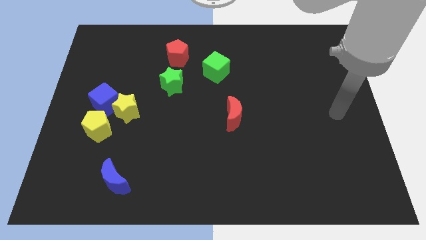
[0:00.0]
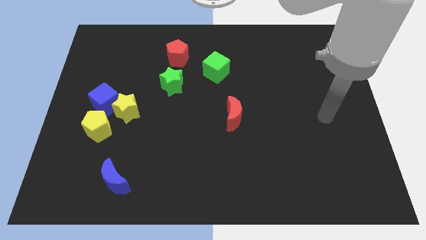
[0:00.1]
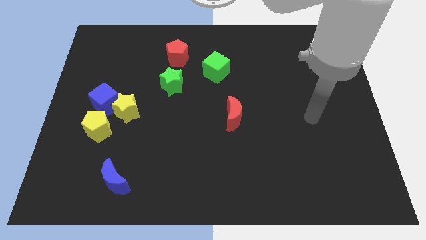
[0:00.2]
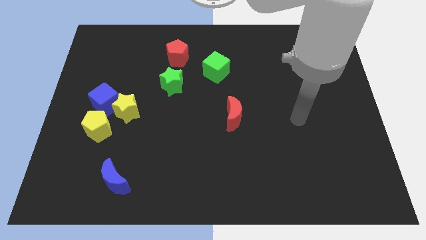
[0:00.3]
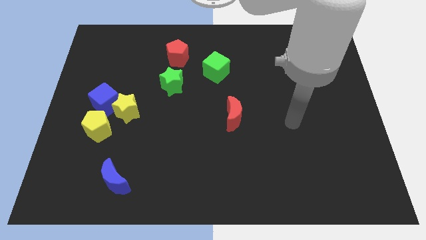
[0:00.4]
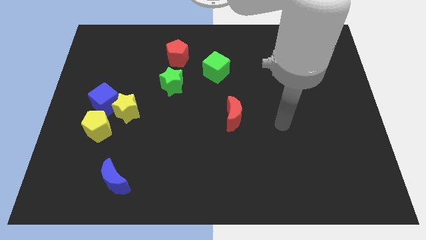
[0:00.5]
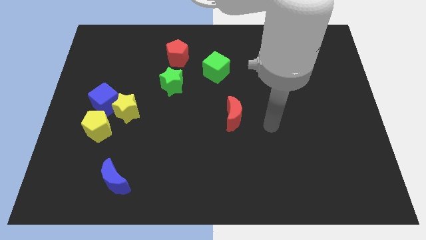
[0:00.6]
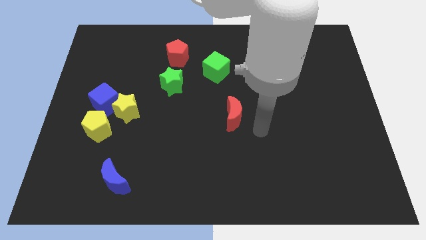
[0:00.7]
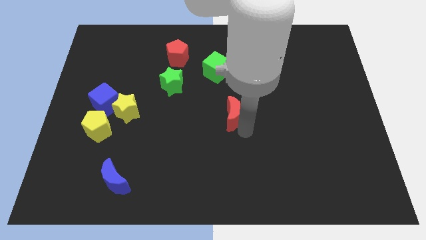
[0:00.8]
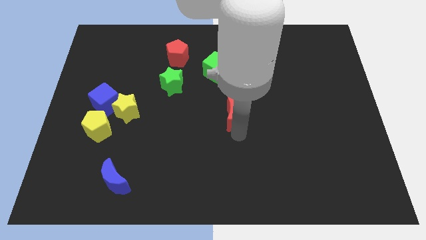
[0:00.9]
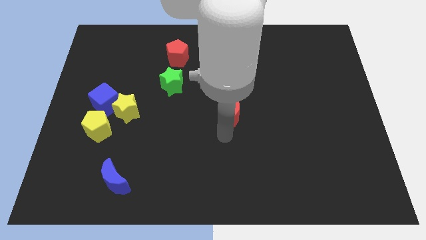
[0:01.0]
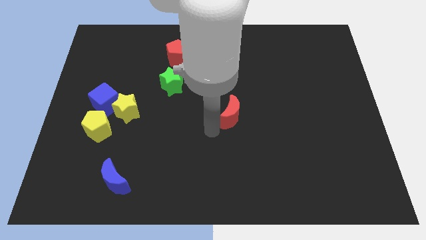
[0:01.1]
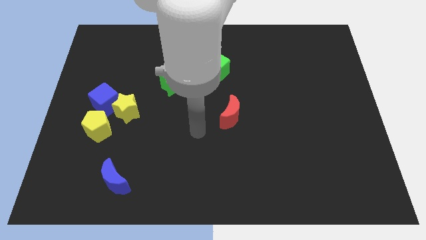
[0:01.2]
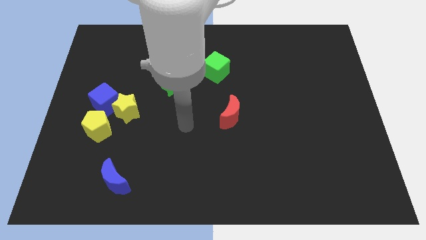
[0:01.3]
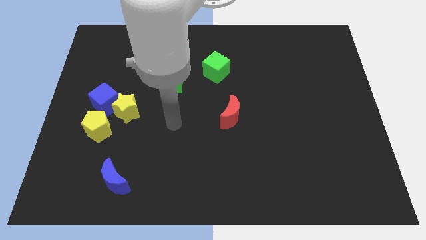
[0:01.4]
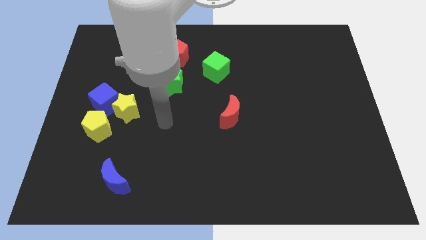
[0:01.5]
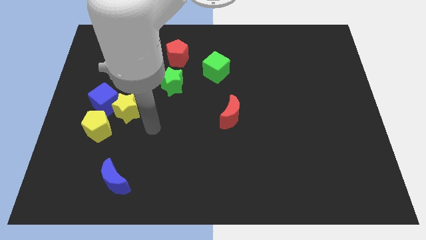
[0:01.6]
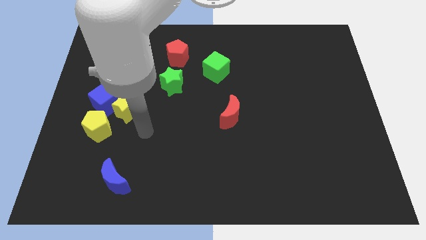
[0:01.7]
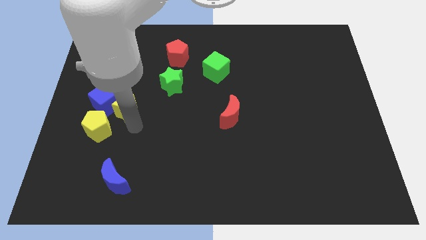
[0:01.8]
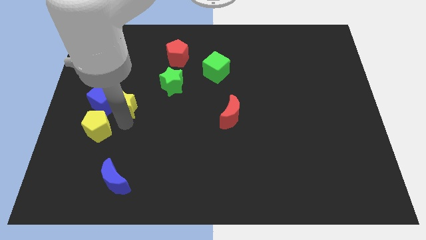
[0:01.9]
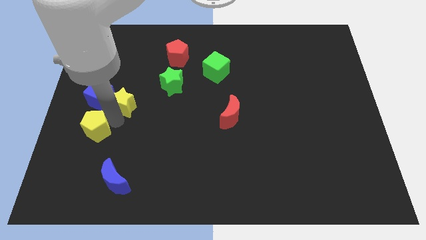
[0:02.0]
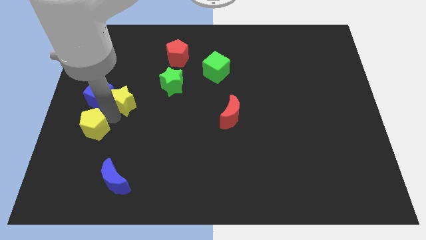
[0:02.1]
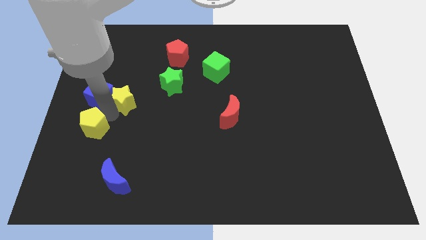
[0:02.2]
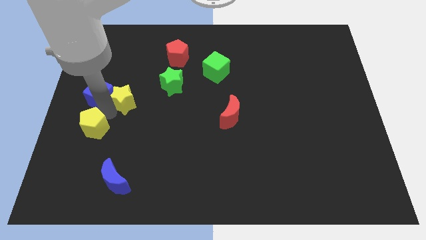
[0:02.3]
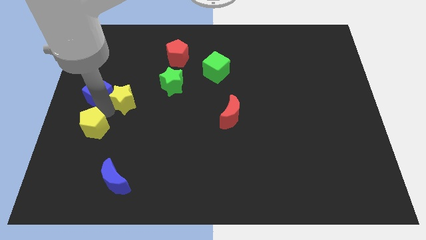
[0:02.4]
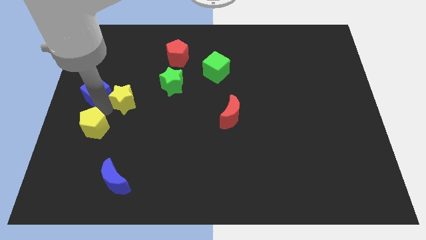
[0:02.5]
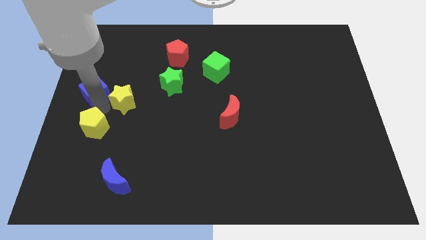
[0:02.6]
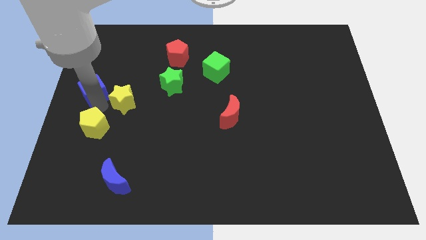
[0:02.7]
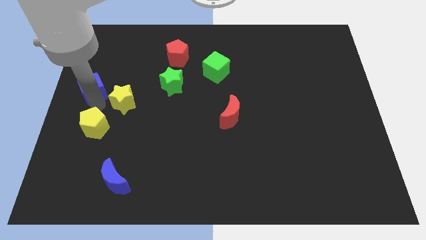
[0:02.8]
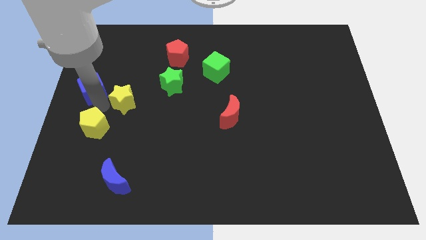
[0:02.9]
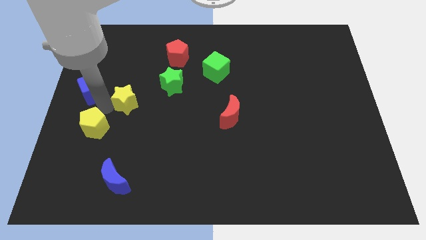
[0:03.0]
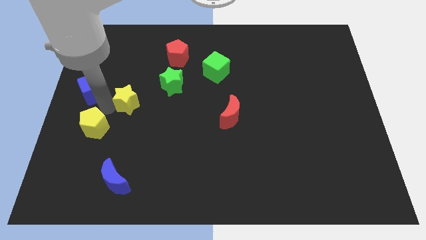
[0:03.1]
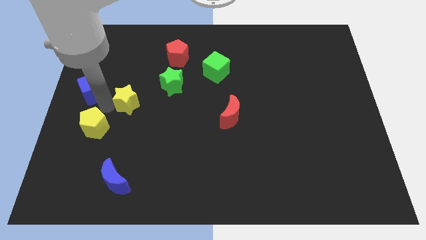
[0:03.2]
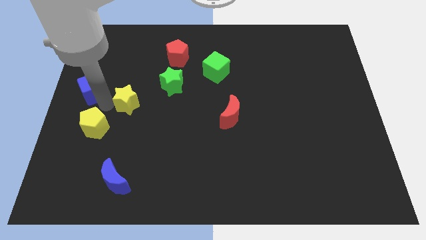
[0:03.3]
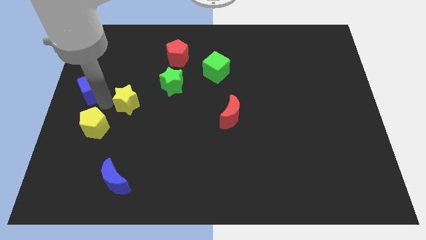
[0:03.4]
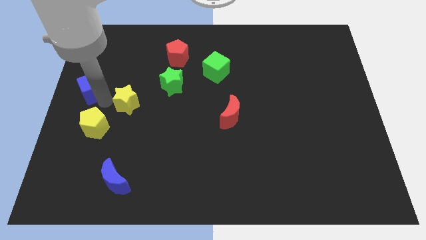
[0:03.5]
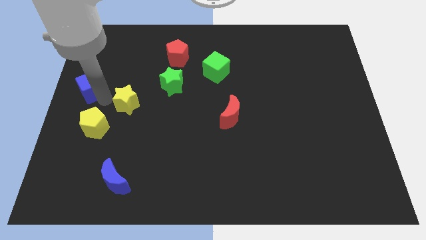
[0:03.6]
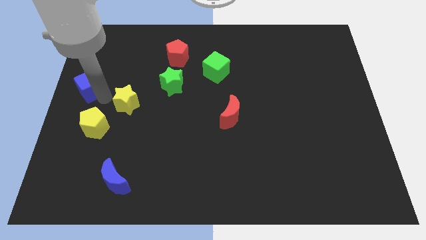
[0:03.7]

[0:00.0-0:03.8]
pull the blue cube apart from the yellow star and yellow pentagon

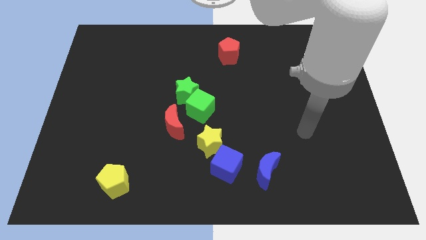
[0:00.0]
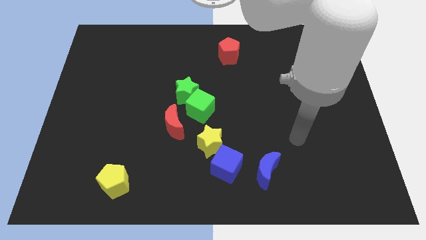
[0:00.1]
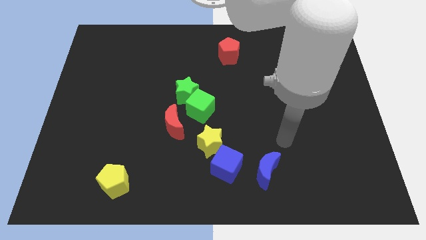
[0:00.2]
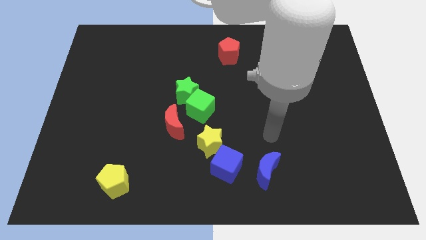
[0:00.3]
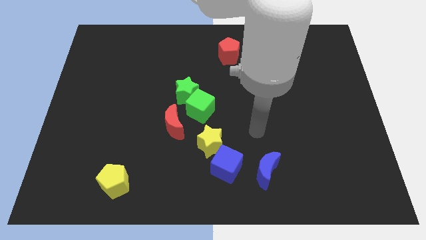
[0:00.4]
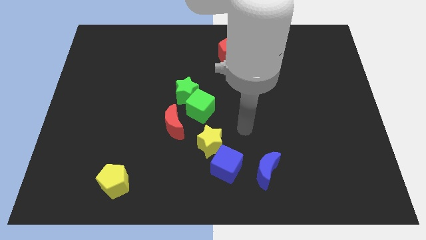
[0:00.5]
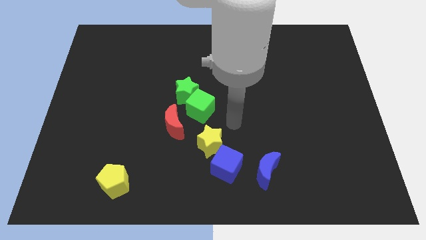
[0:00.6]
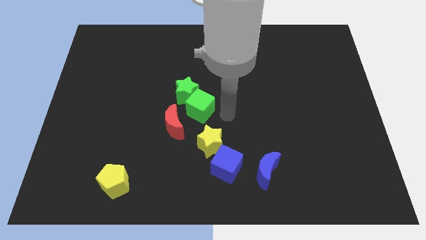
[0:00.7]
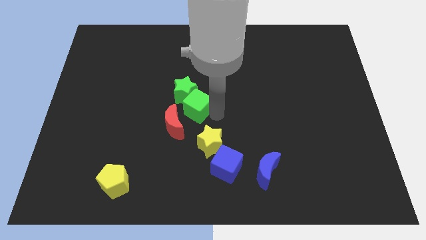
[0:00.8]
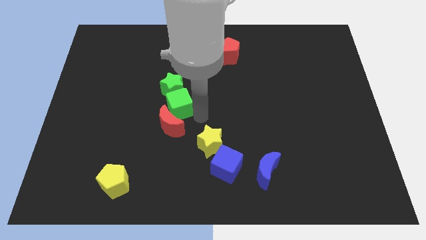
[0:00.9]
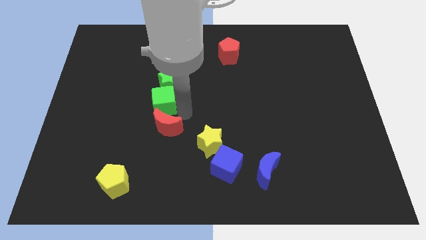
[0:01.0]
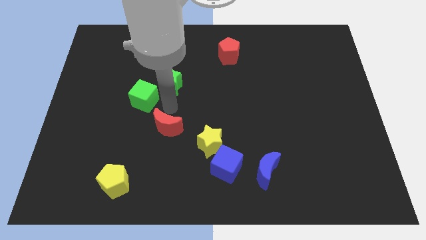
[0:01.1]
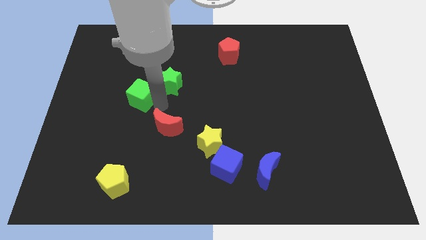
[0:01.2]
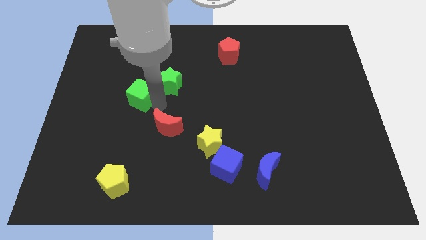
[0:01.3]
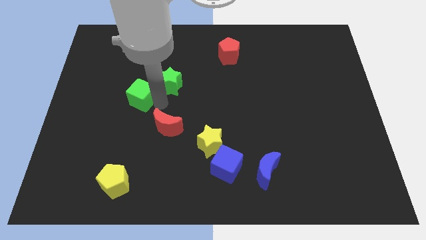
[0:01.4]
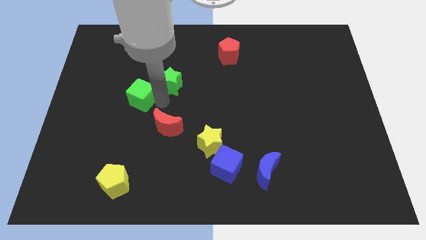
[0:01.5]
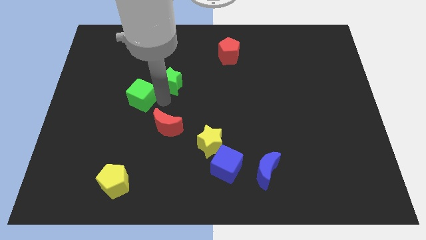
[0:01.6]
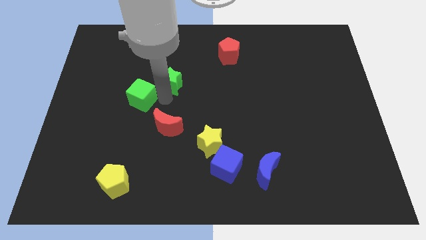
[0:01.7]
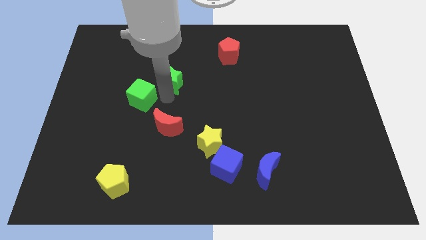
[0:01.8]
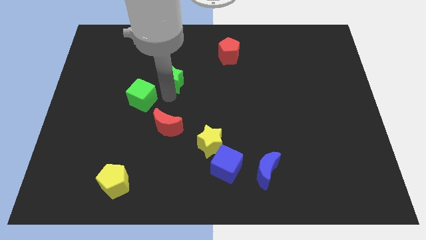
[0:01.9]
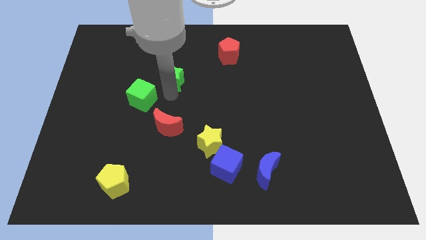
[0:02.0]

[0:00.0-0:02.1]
move the green star away from the green cube and red moon

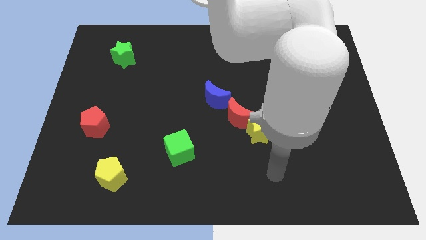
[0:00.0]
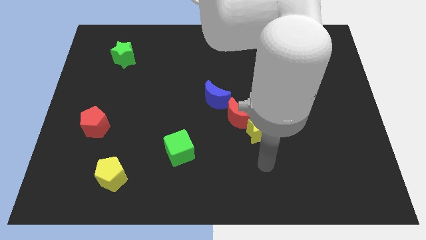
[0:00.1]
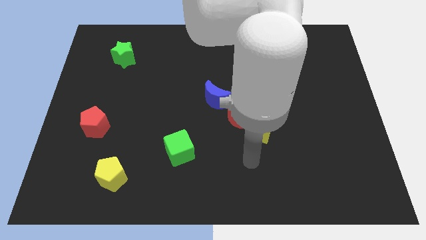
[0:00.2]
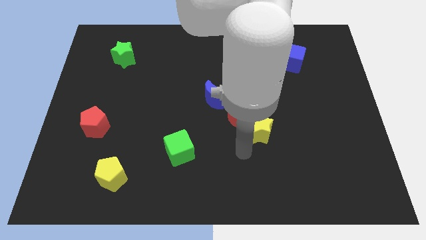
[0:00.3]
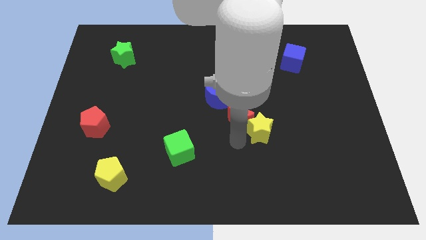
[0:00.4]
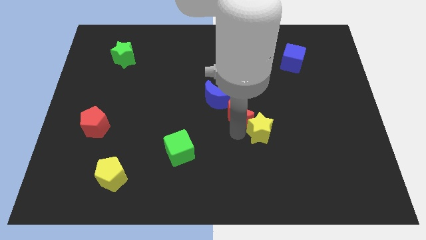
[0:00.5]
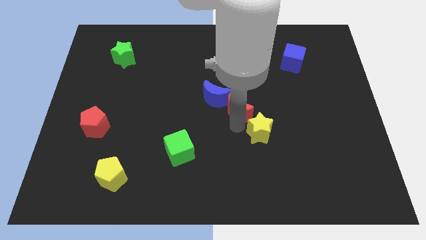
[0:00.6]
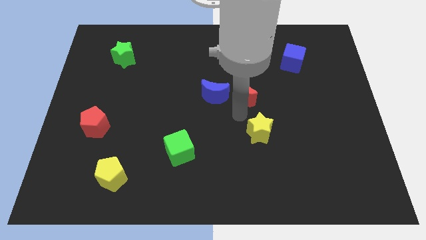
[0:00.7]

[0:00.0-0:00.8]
pull the yellow star apart from the red moon

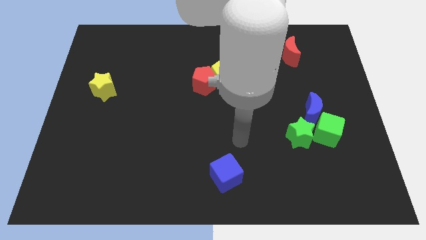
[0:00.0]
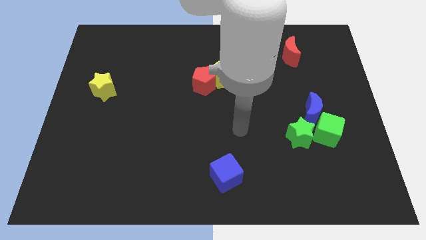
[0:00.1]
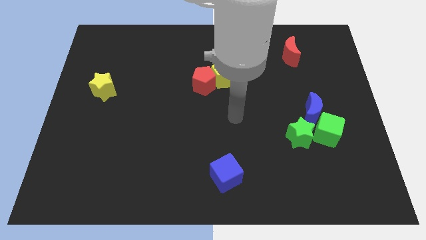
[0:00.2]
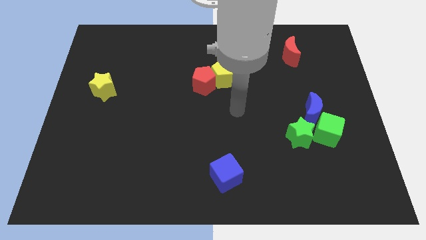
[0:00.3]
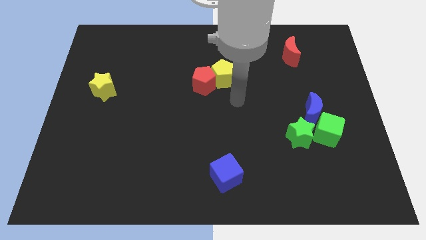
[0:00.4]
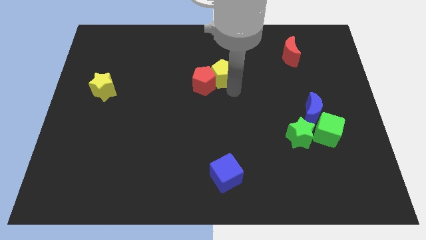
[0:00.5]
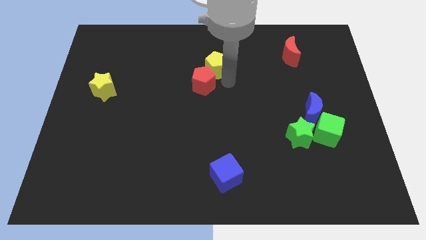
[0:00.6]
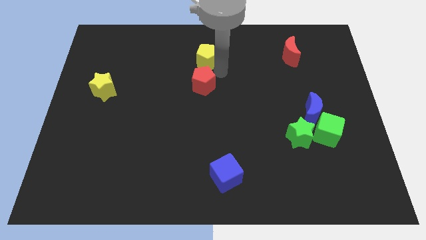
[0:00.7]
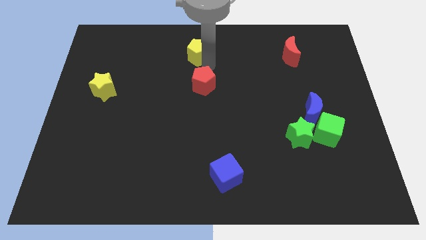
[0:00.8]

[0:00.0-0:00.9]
move the red pentagon away from the yellow pentagon

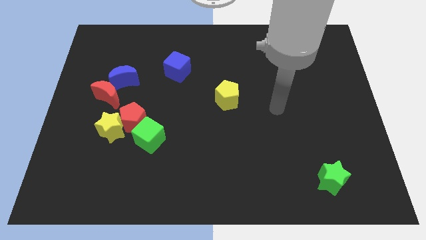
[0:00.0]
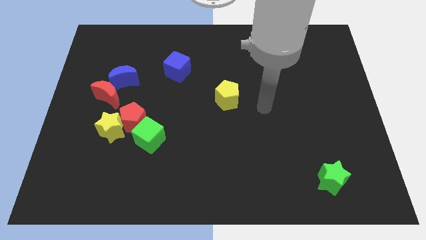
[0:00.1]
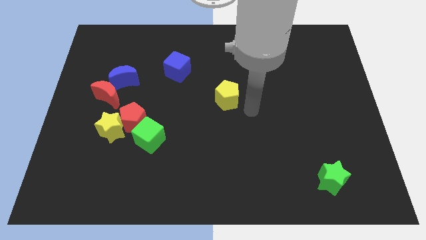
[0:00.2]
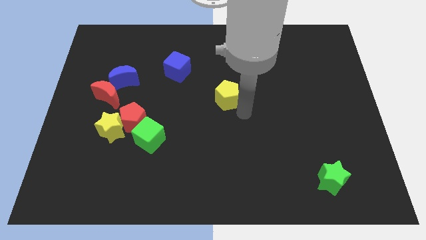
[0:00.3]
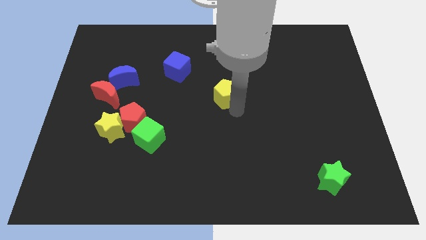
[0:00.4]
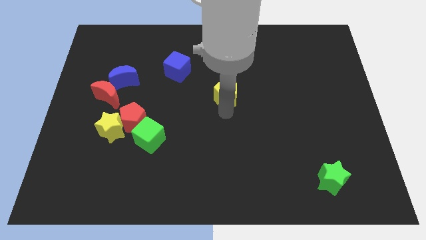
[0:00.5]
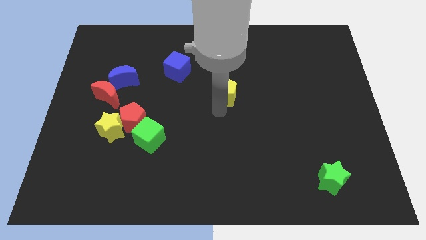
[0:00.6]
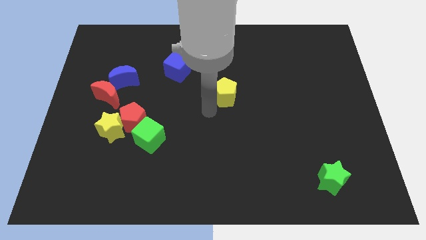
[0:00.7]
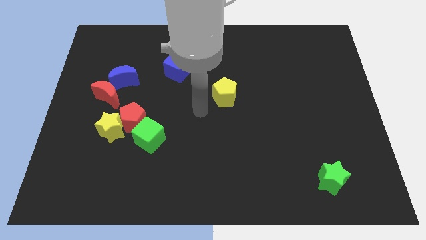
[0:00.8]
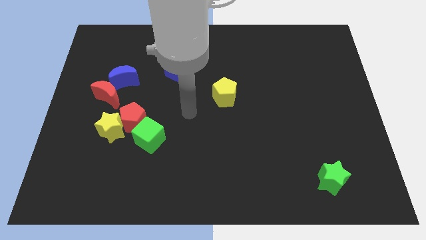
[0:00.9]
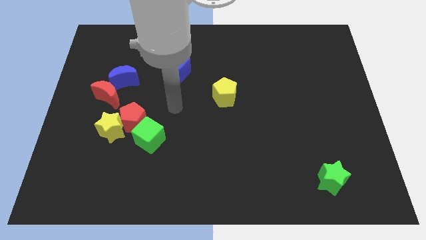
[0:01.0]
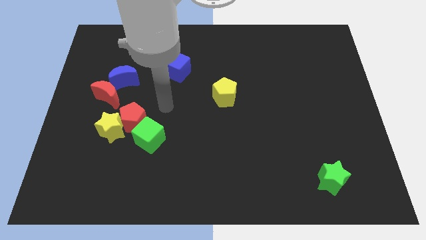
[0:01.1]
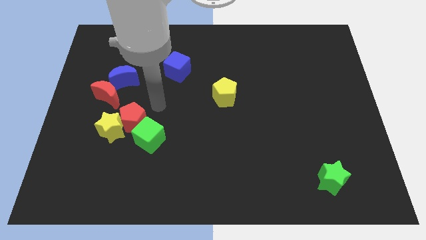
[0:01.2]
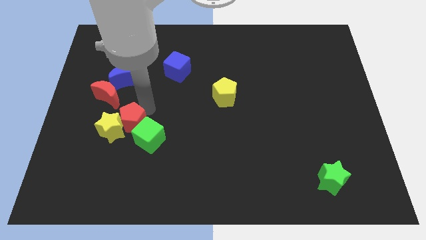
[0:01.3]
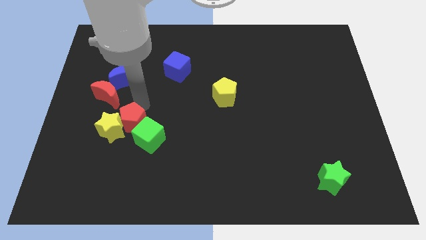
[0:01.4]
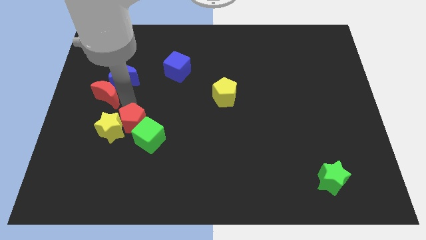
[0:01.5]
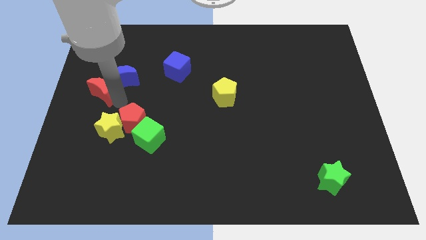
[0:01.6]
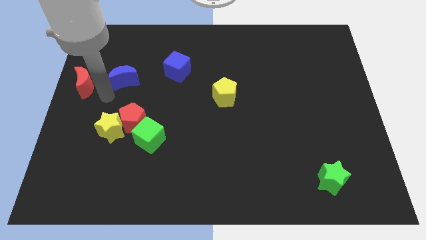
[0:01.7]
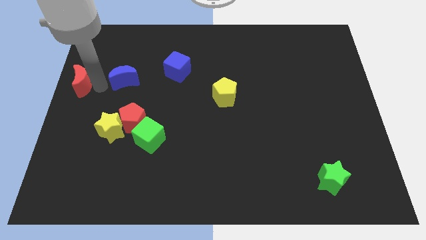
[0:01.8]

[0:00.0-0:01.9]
move the blue moon away from the red moon
